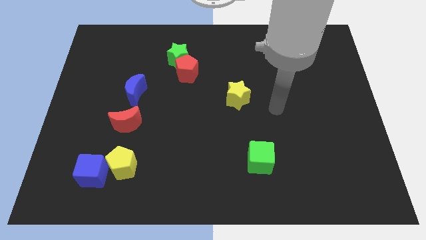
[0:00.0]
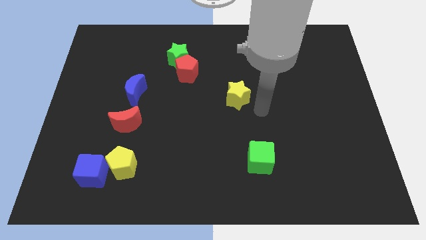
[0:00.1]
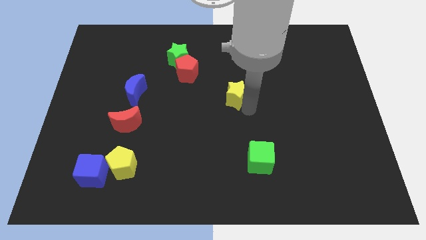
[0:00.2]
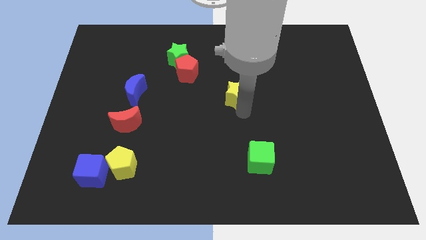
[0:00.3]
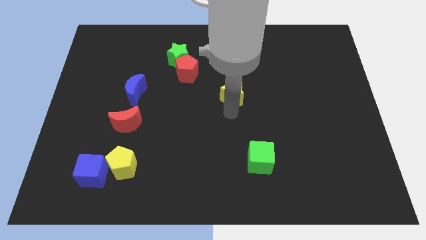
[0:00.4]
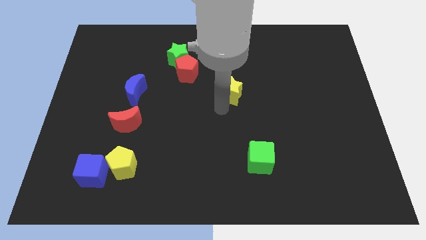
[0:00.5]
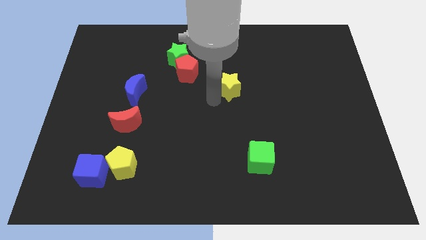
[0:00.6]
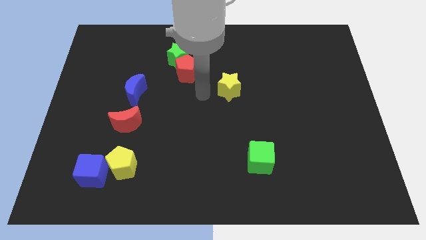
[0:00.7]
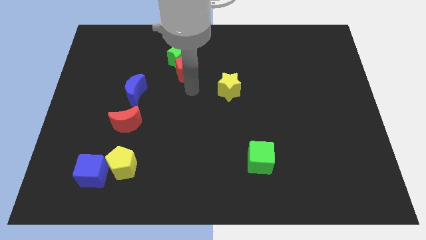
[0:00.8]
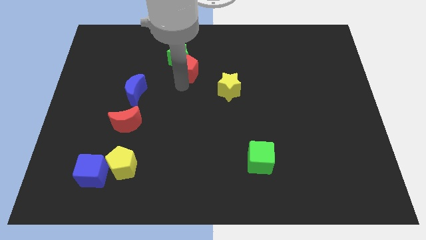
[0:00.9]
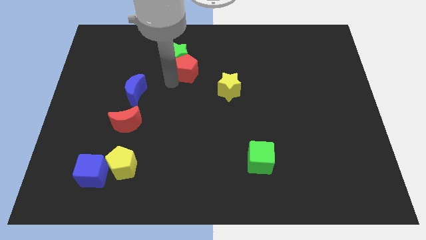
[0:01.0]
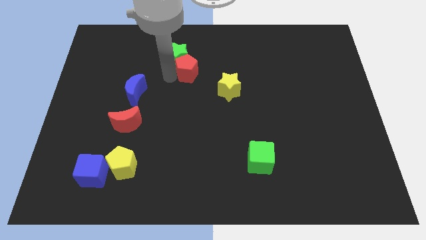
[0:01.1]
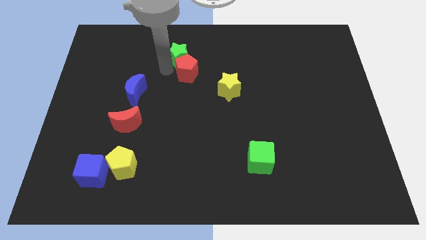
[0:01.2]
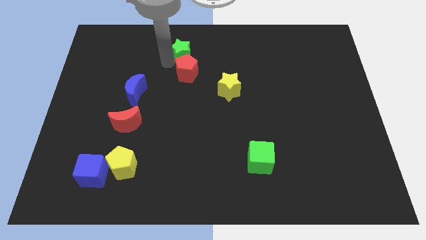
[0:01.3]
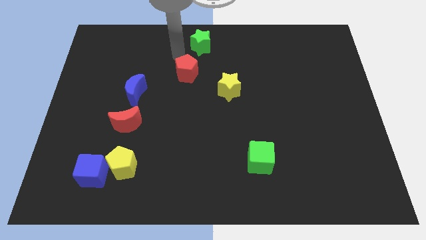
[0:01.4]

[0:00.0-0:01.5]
move the red pentagon away from the green star

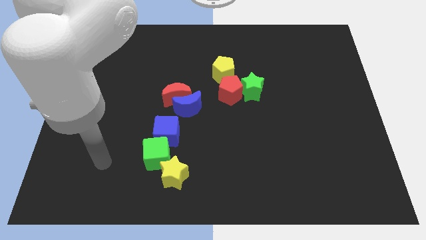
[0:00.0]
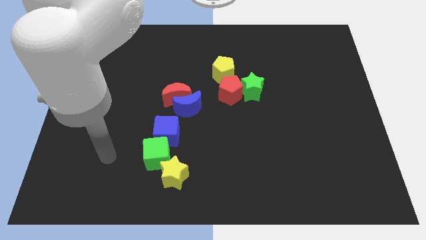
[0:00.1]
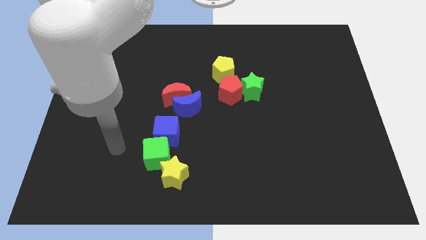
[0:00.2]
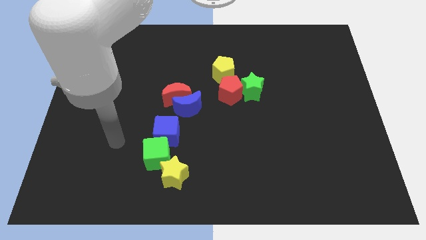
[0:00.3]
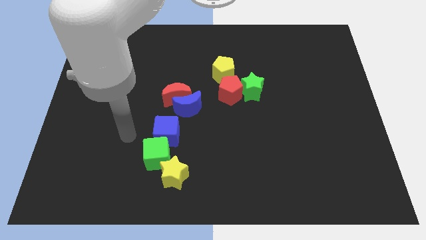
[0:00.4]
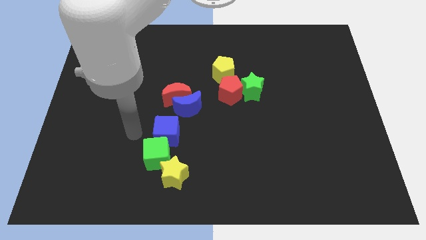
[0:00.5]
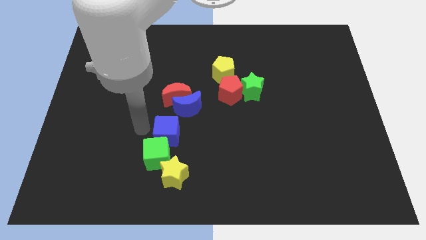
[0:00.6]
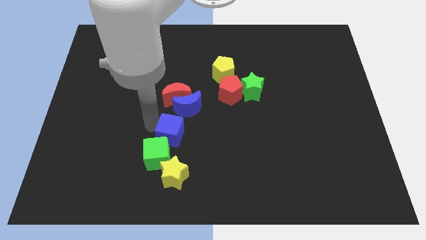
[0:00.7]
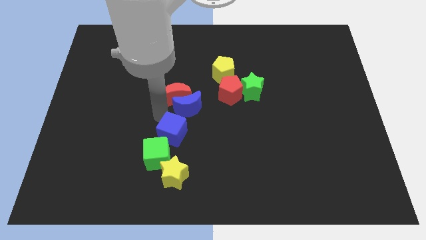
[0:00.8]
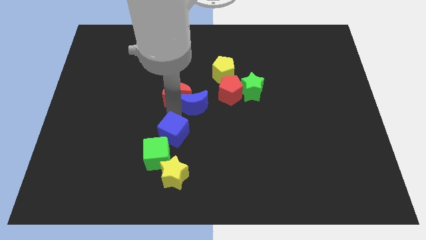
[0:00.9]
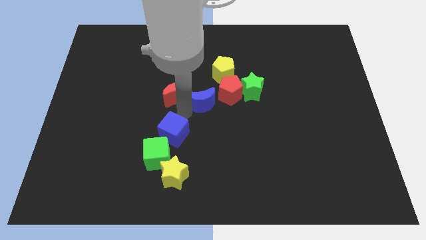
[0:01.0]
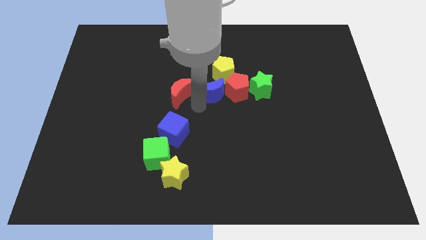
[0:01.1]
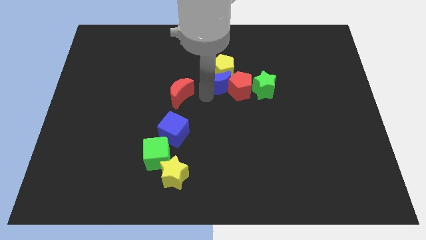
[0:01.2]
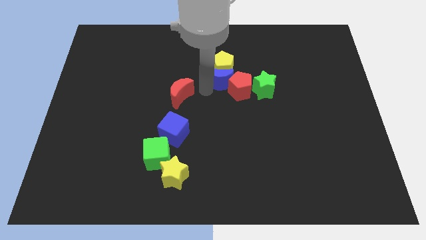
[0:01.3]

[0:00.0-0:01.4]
separate the red moon from the blue moon

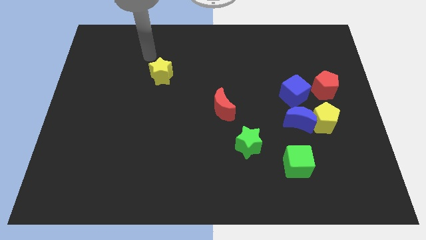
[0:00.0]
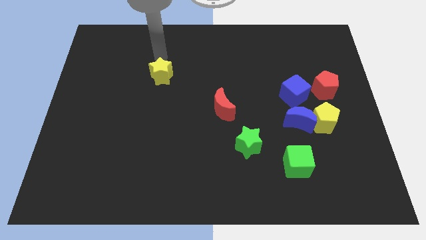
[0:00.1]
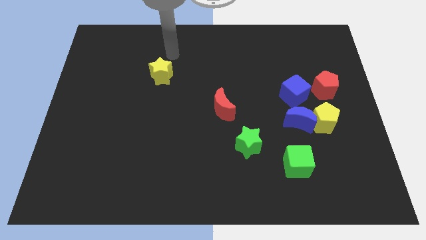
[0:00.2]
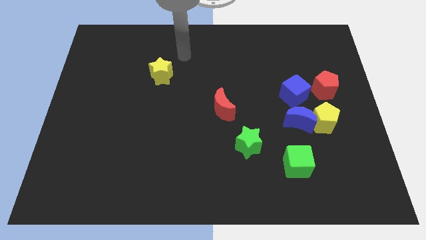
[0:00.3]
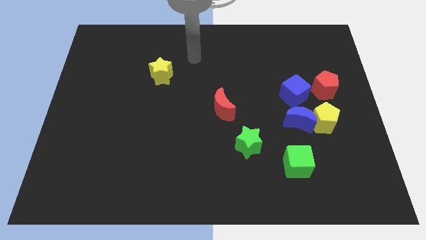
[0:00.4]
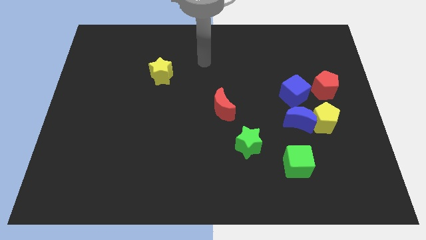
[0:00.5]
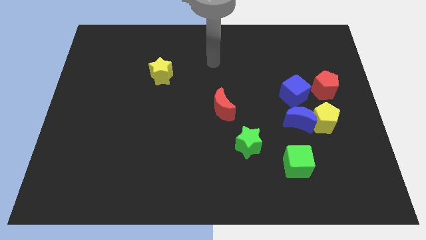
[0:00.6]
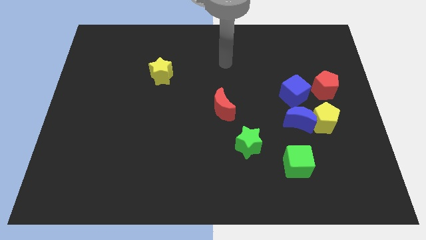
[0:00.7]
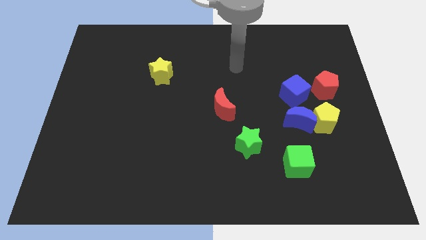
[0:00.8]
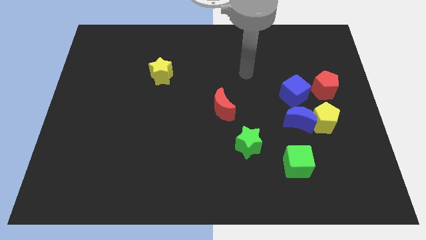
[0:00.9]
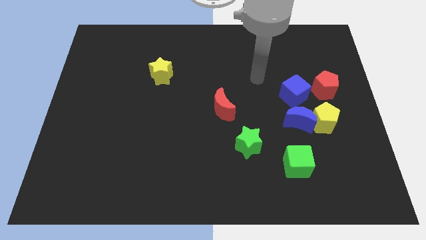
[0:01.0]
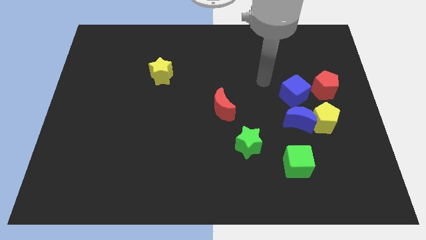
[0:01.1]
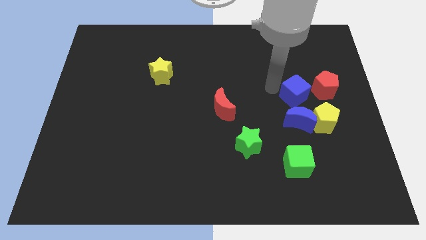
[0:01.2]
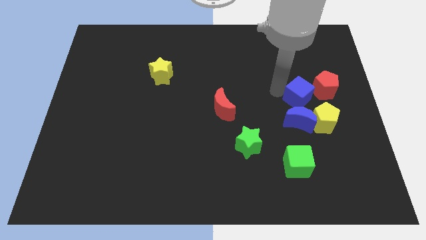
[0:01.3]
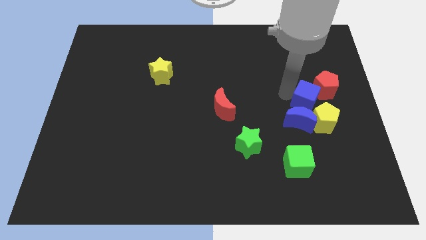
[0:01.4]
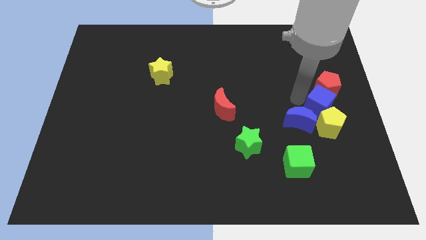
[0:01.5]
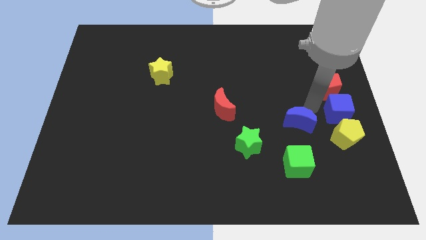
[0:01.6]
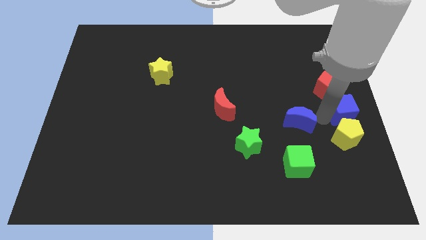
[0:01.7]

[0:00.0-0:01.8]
move the blue moon away from the yellow pentagon and blue cube

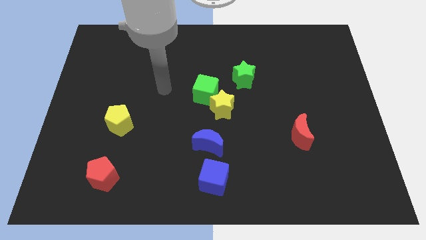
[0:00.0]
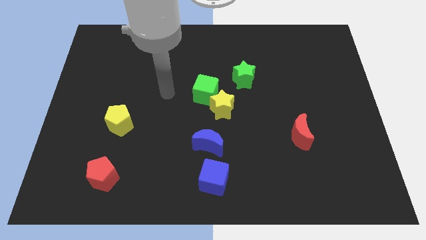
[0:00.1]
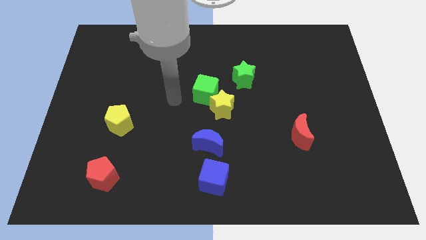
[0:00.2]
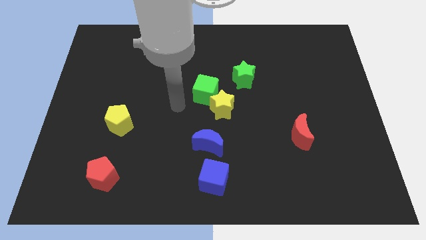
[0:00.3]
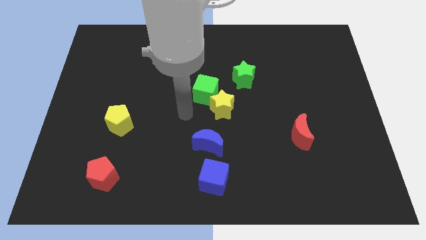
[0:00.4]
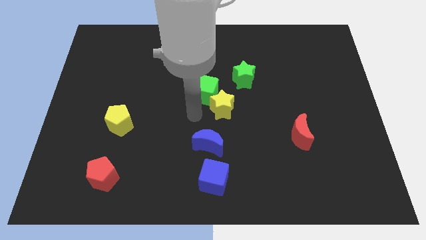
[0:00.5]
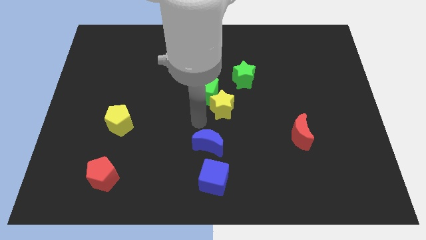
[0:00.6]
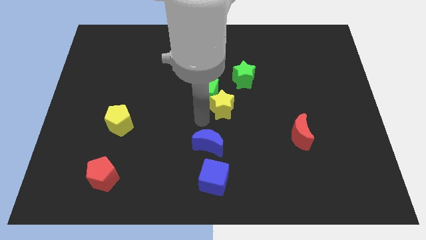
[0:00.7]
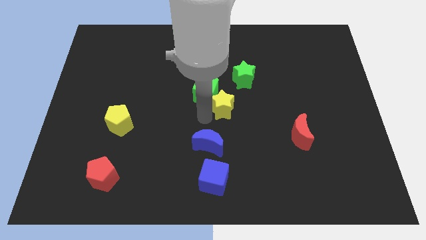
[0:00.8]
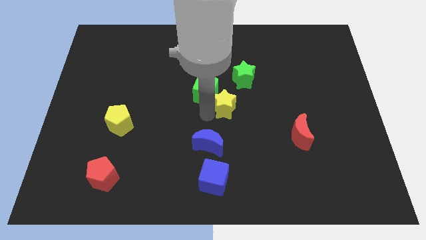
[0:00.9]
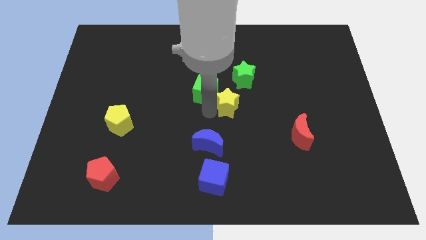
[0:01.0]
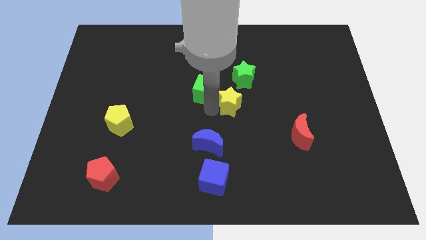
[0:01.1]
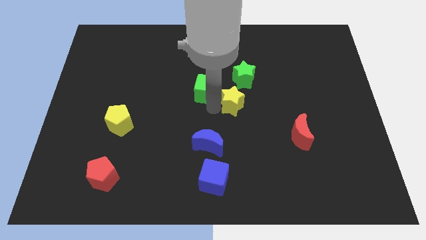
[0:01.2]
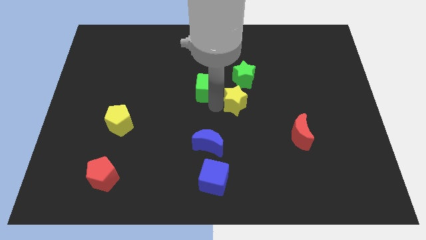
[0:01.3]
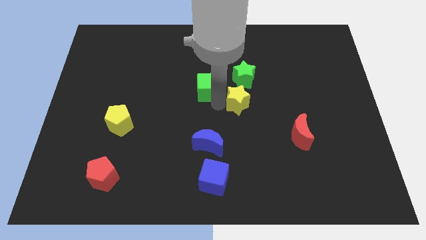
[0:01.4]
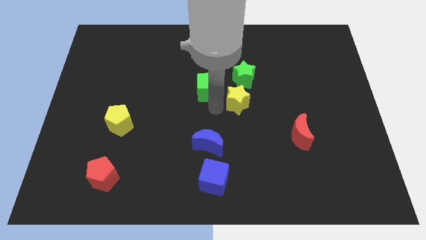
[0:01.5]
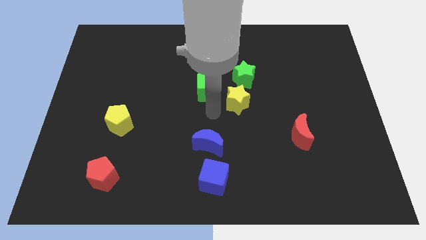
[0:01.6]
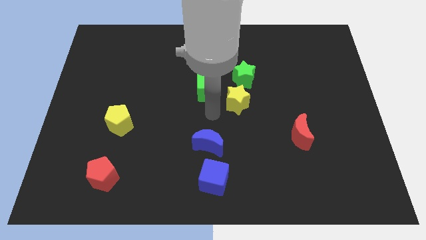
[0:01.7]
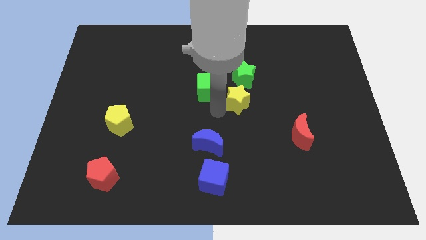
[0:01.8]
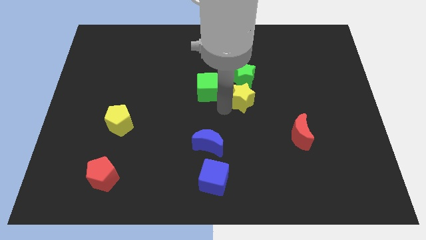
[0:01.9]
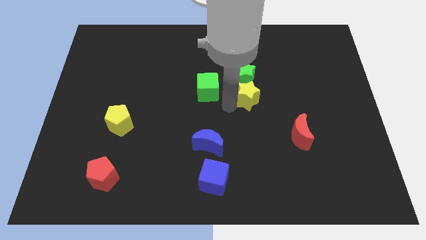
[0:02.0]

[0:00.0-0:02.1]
pull the yellow star apart from the green cube and blue moon

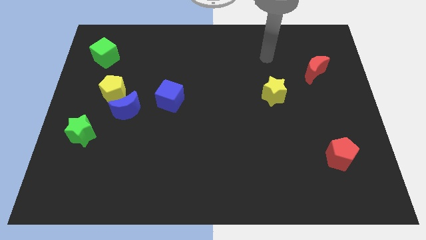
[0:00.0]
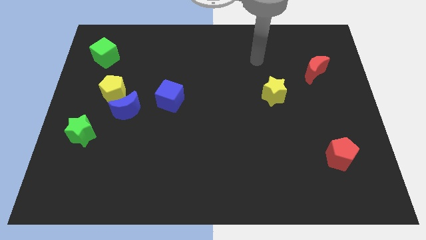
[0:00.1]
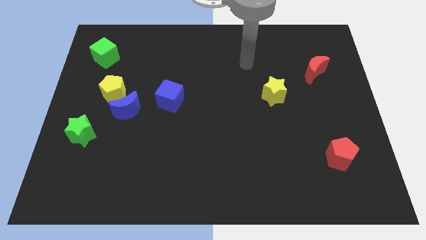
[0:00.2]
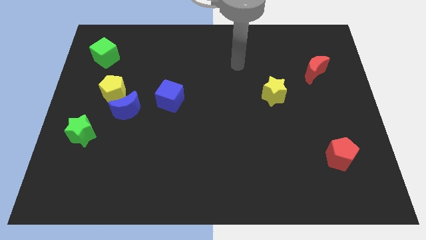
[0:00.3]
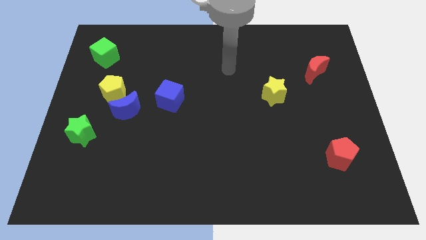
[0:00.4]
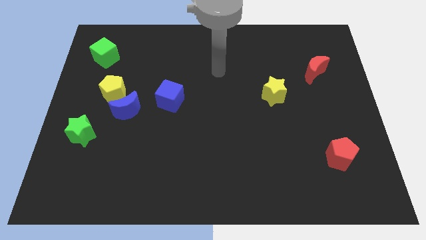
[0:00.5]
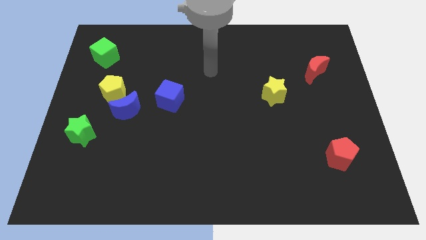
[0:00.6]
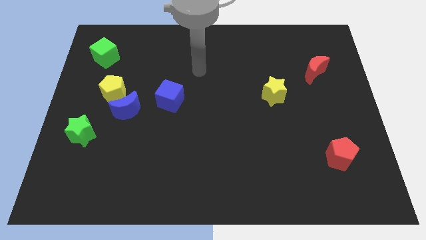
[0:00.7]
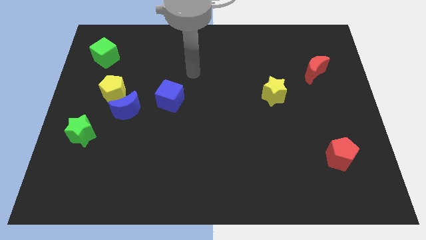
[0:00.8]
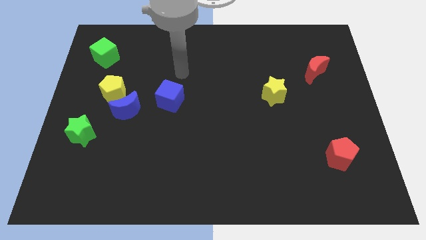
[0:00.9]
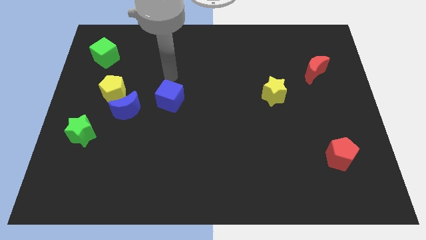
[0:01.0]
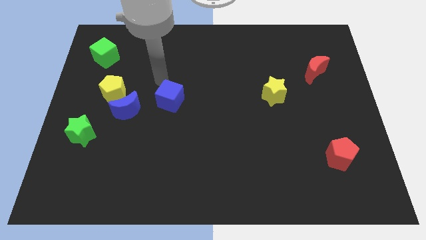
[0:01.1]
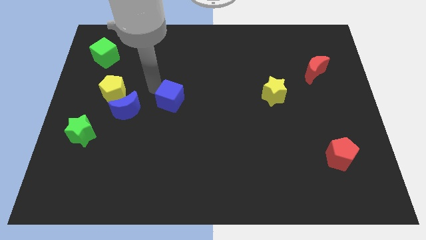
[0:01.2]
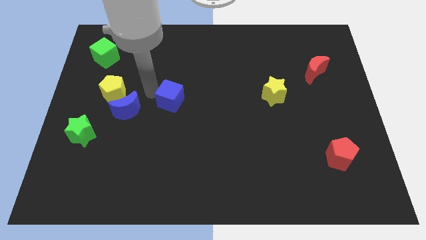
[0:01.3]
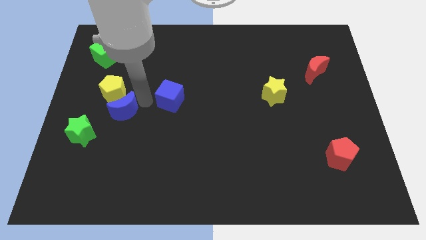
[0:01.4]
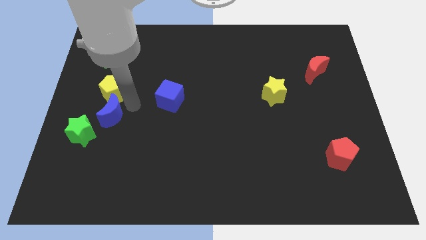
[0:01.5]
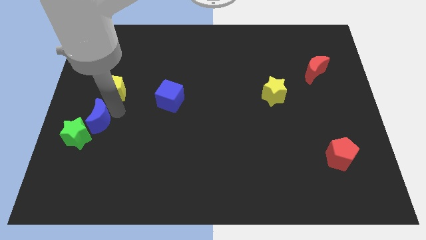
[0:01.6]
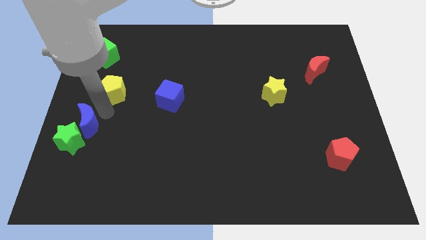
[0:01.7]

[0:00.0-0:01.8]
separate the yellow pentagon from the blue moon

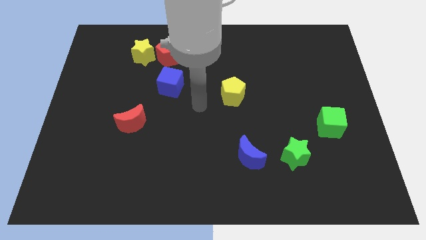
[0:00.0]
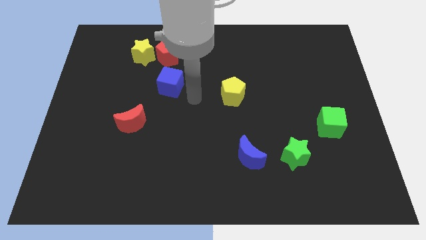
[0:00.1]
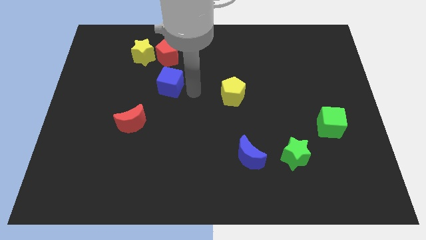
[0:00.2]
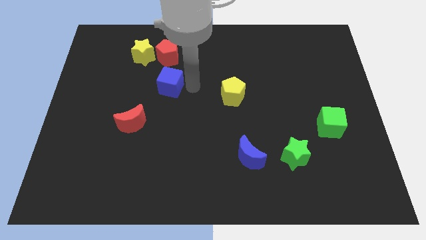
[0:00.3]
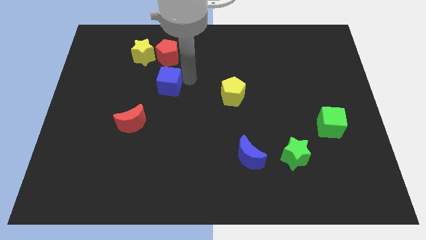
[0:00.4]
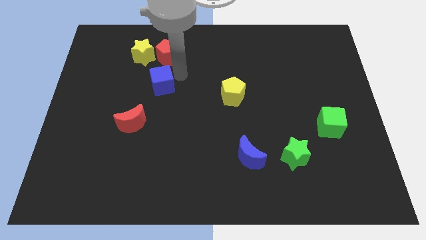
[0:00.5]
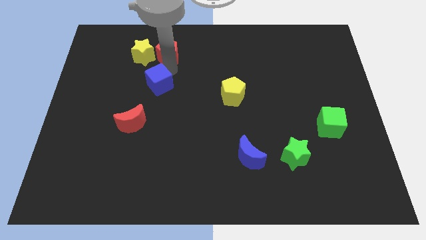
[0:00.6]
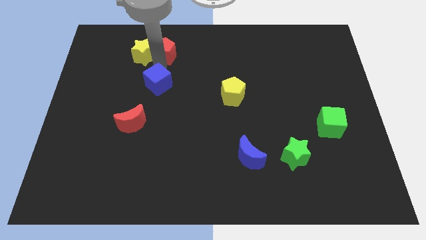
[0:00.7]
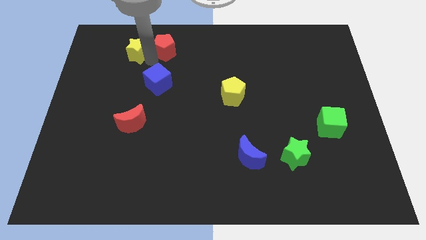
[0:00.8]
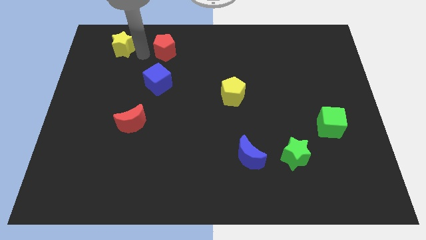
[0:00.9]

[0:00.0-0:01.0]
separate the red pentagon from the yellow star
